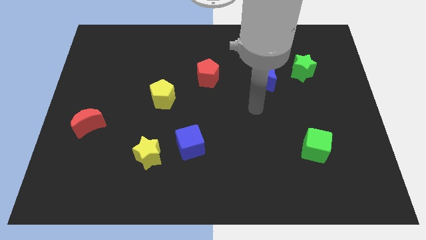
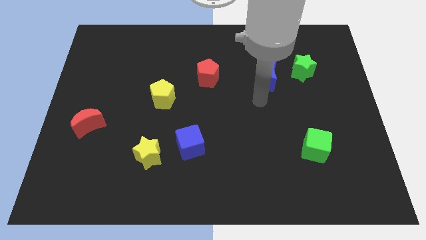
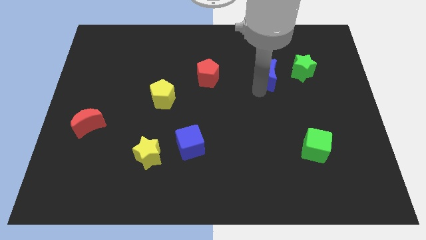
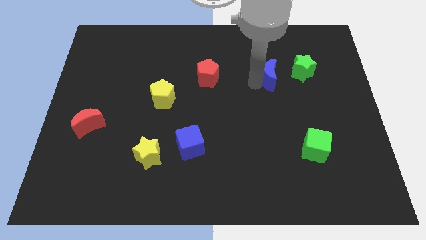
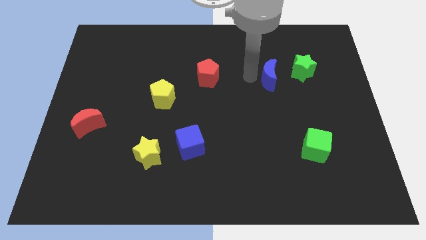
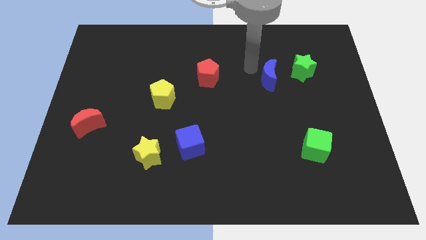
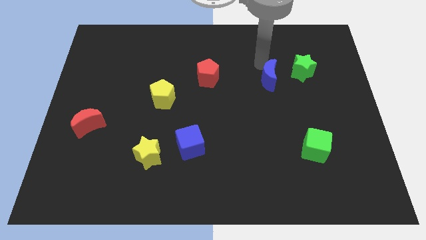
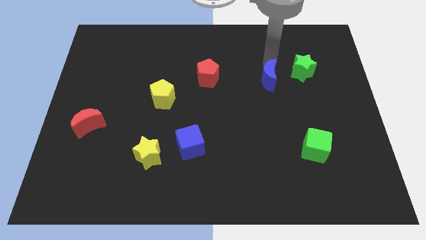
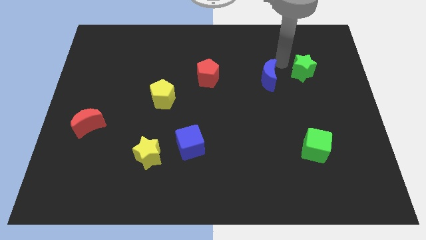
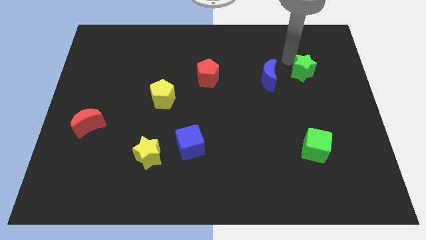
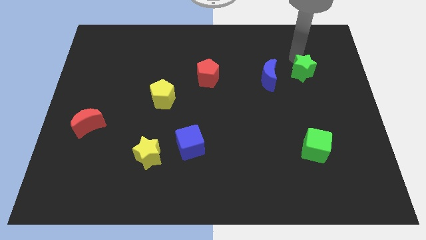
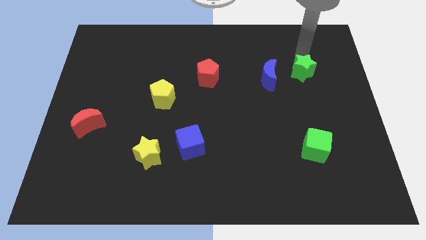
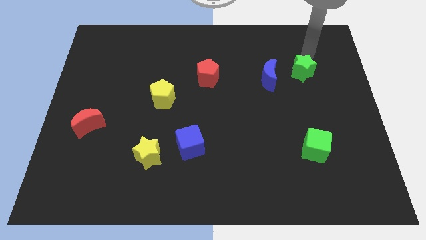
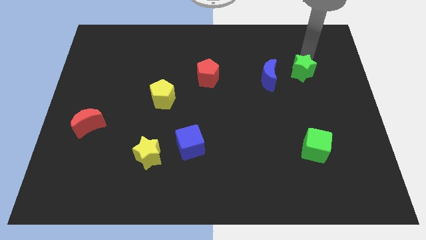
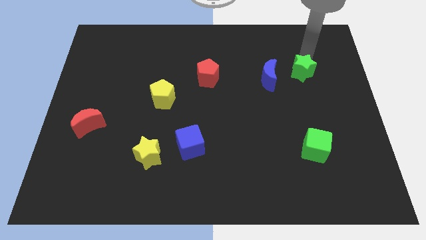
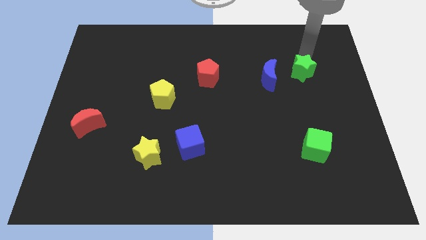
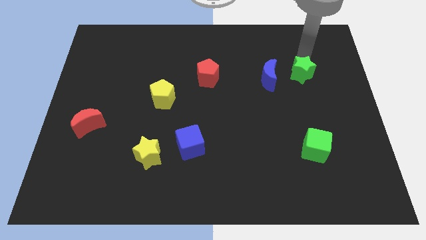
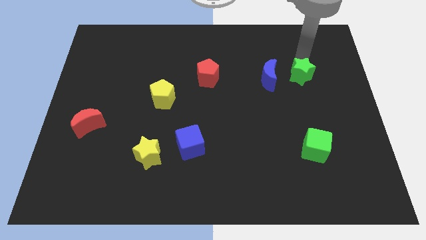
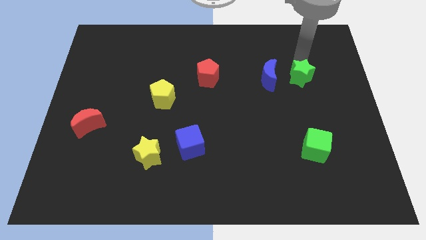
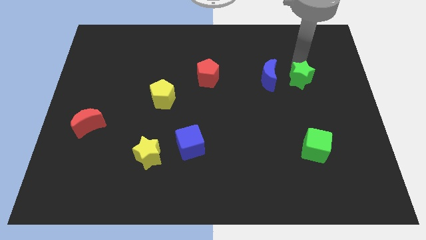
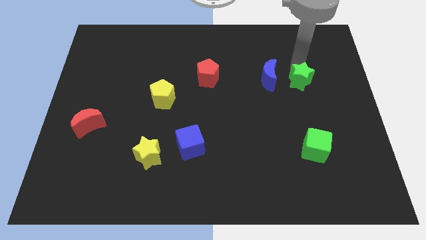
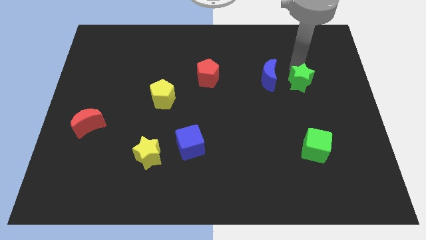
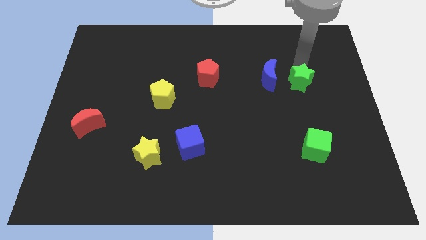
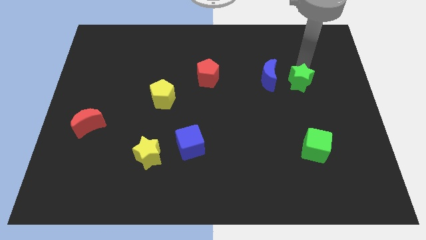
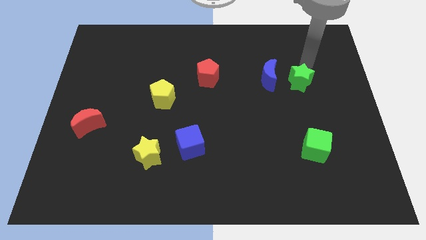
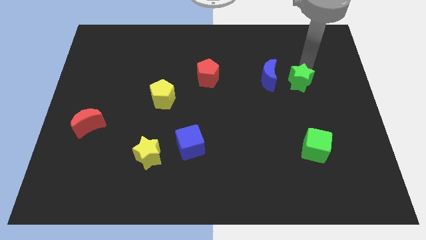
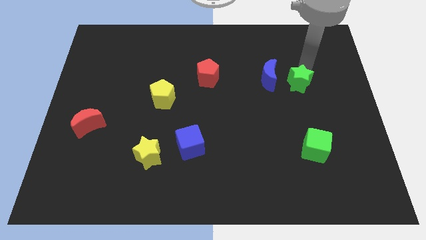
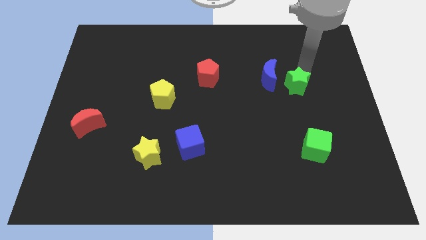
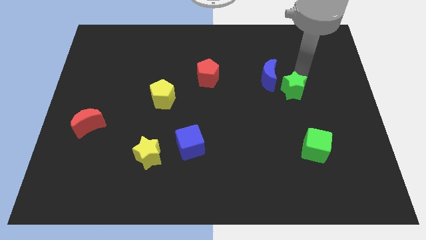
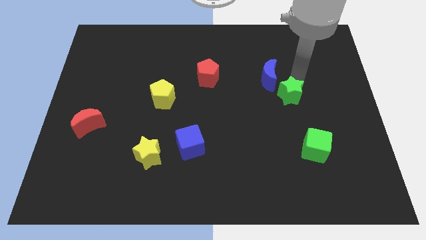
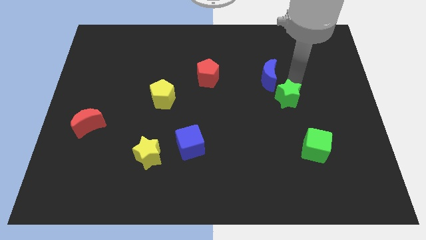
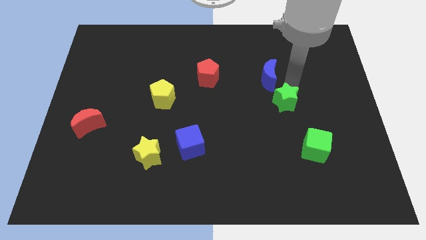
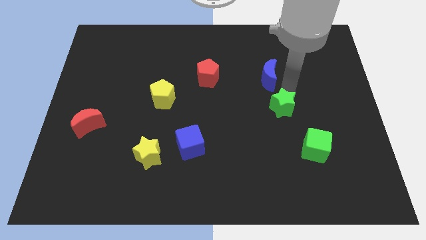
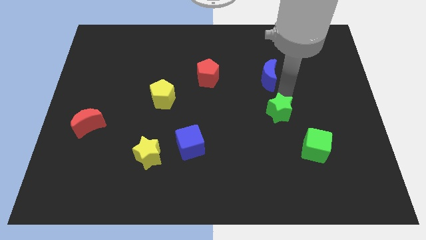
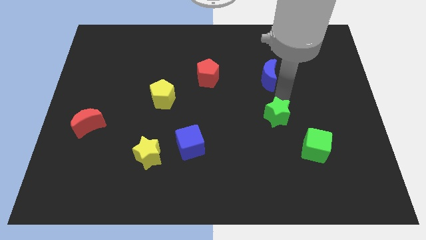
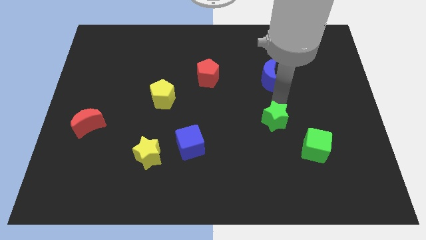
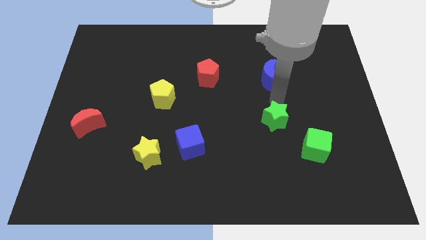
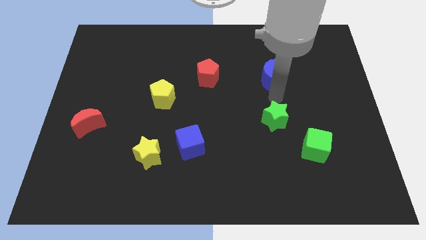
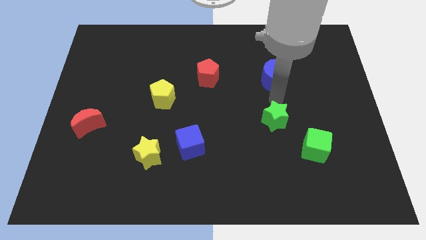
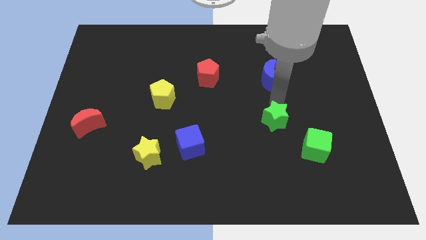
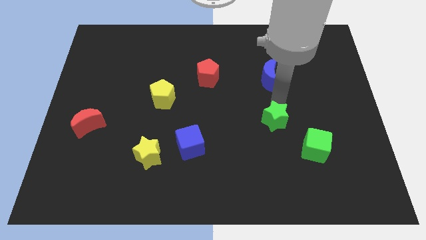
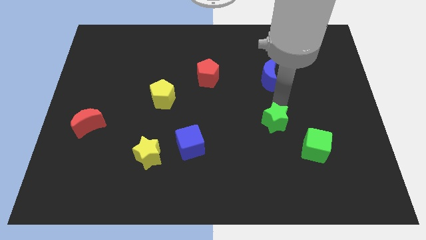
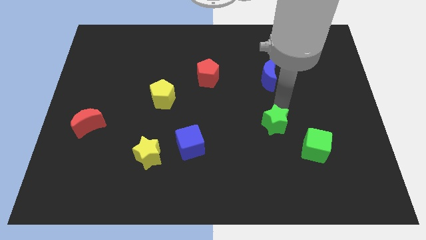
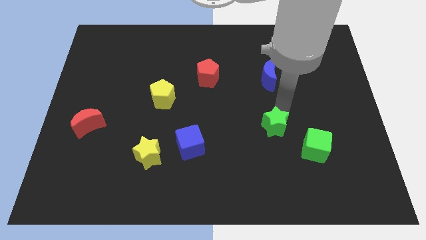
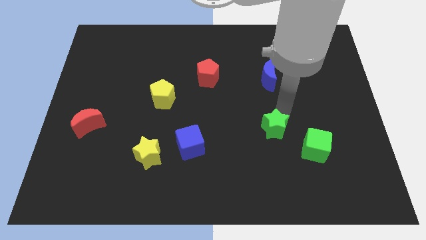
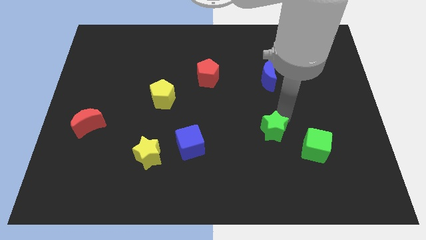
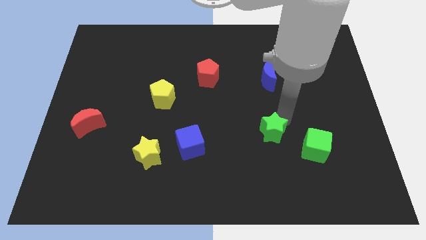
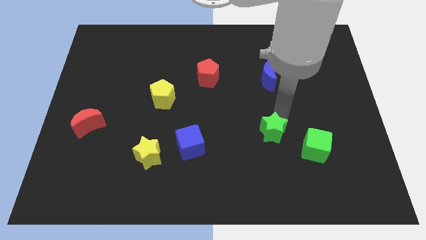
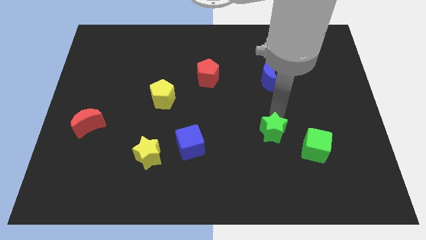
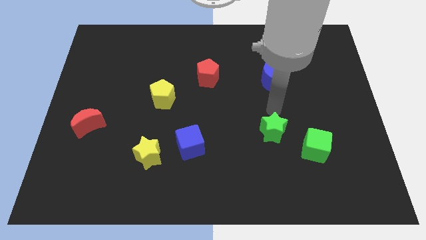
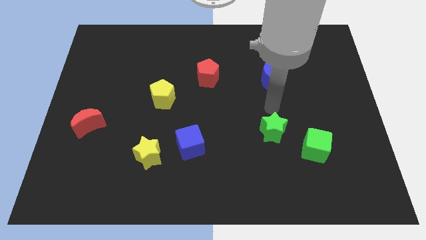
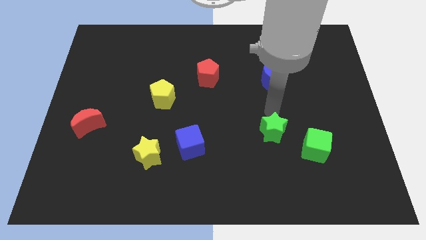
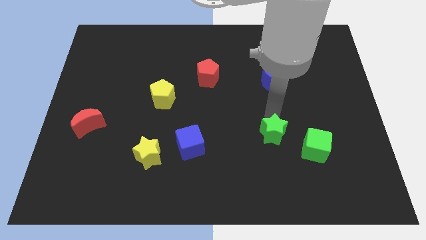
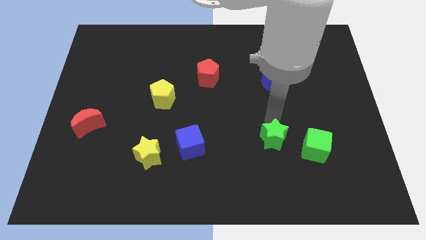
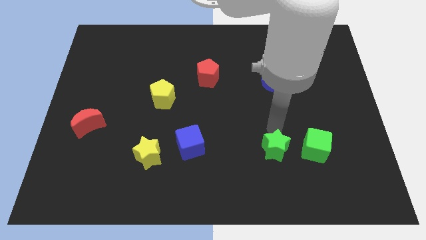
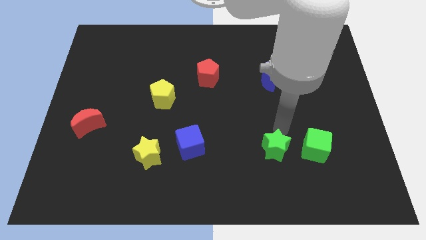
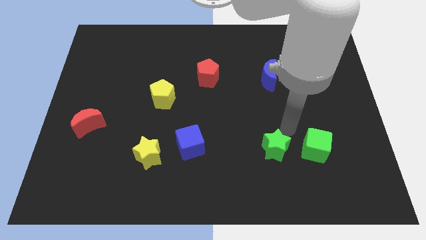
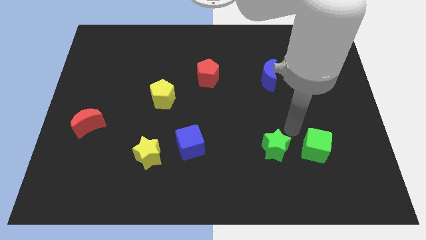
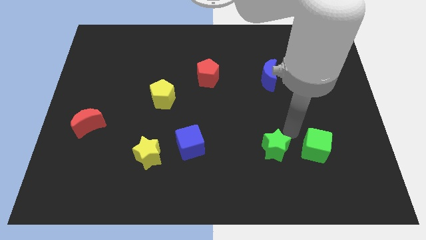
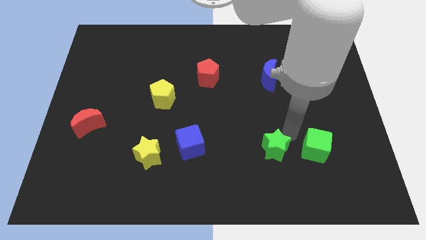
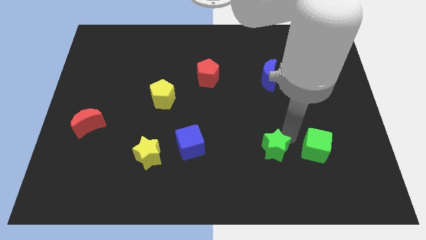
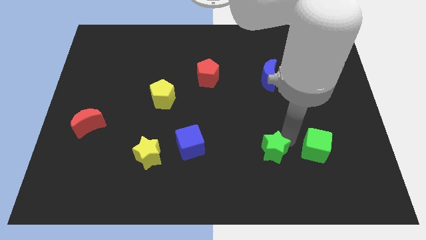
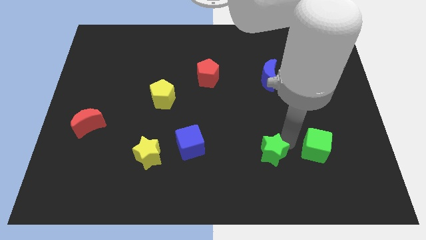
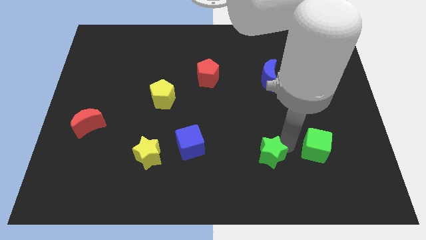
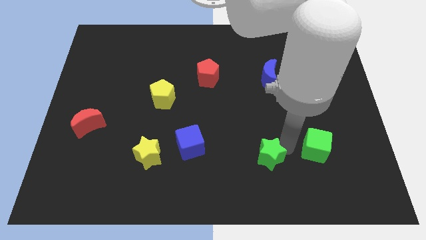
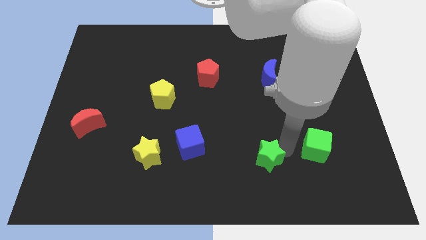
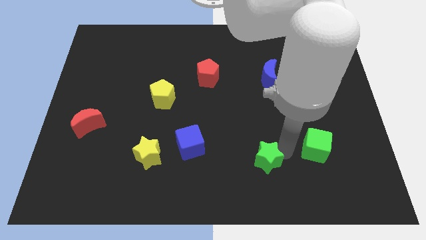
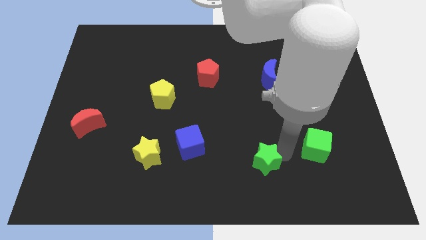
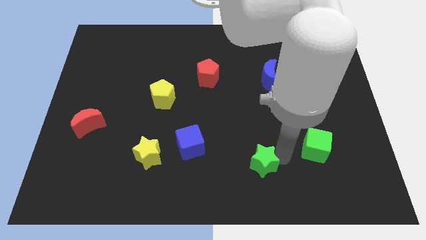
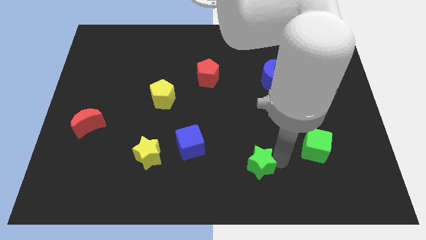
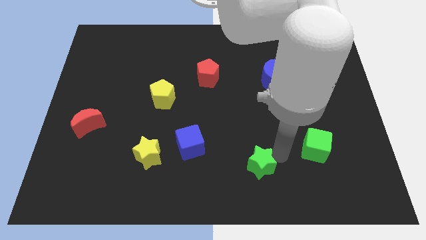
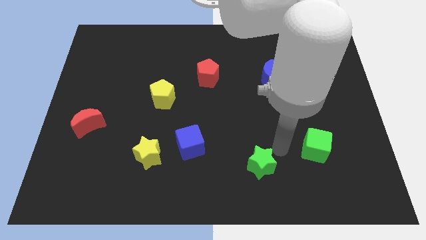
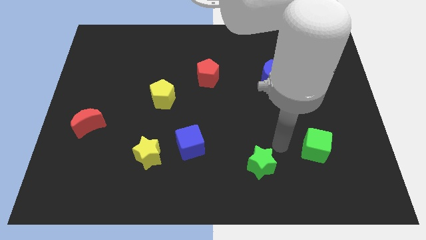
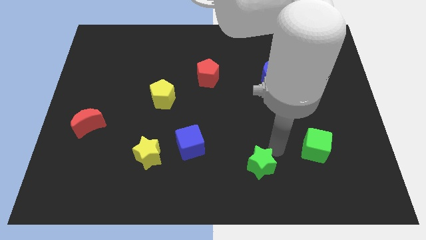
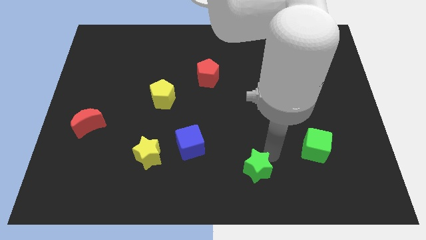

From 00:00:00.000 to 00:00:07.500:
put the green star to the bottom side
